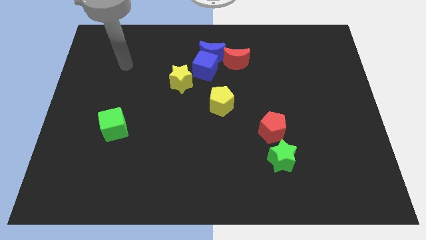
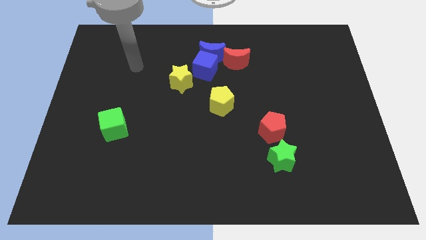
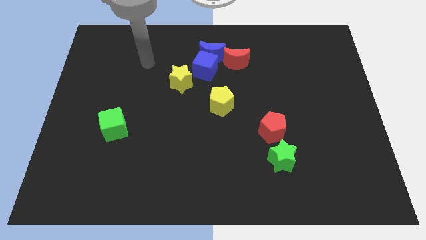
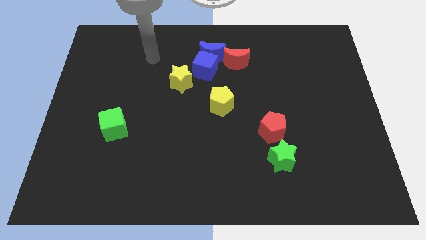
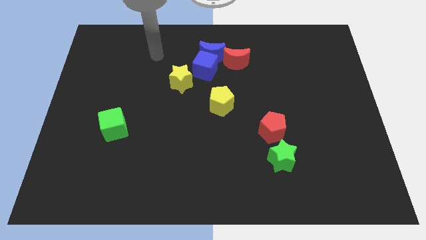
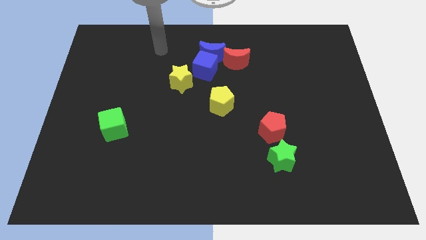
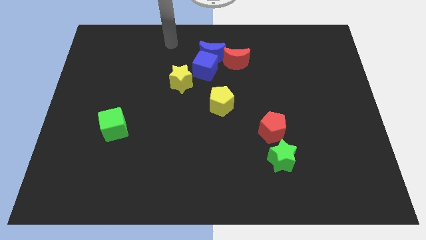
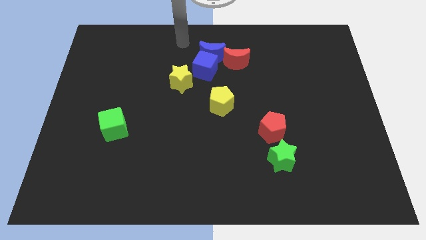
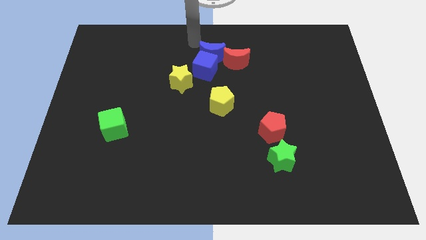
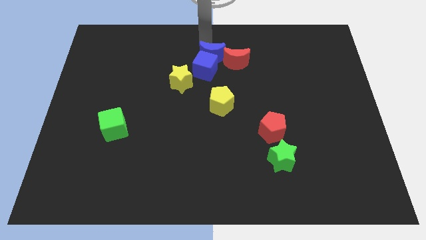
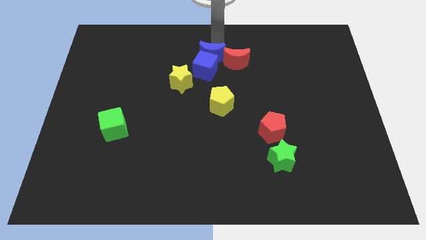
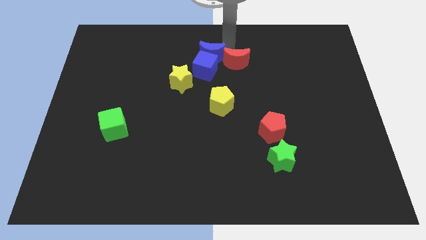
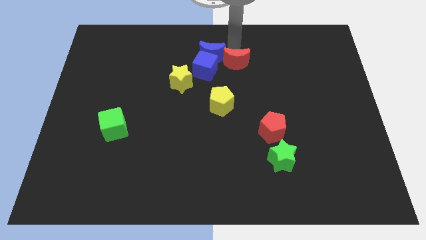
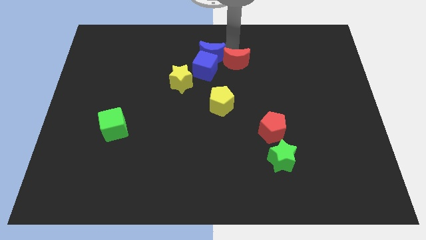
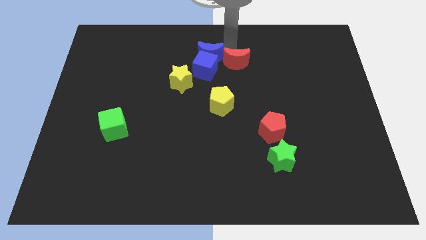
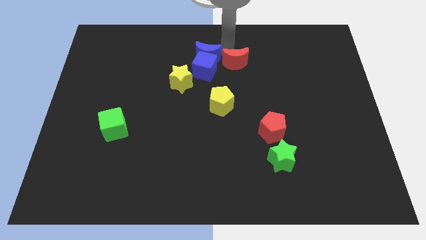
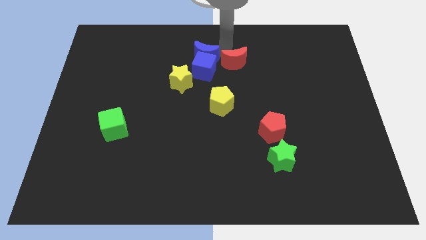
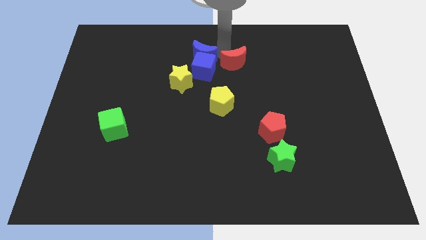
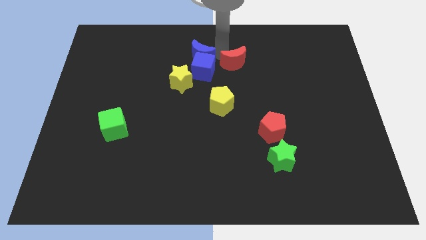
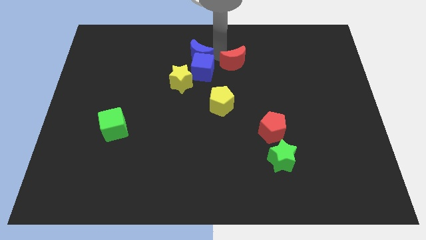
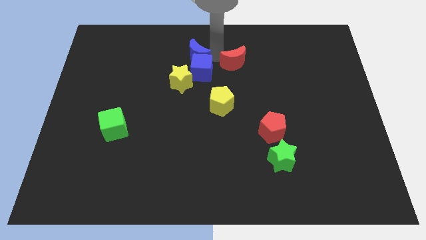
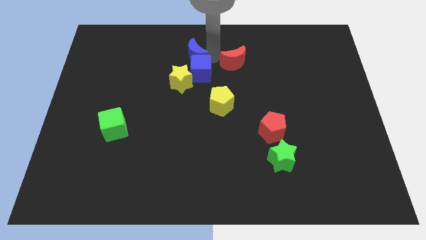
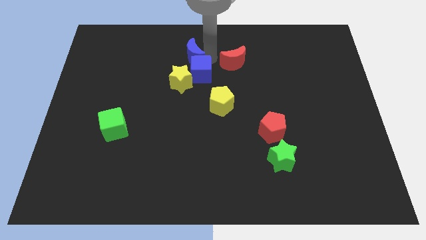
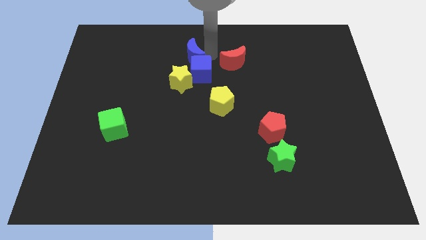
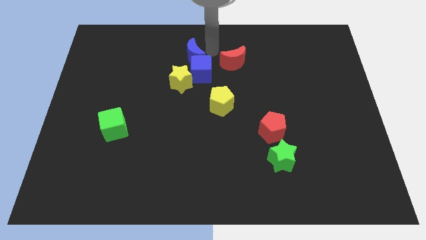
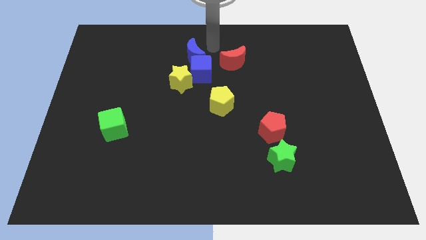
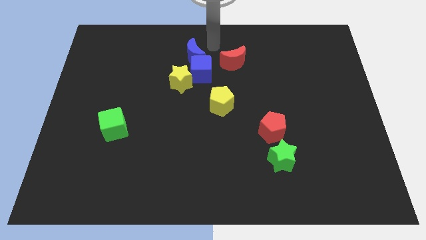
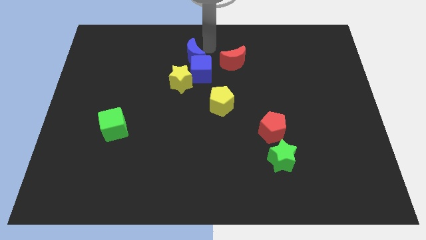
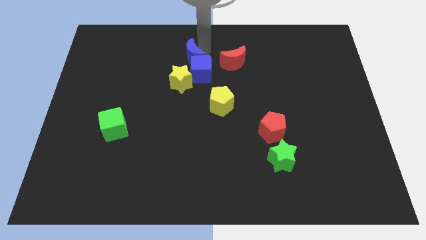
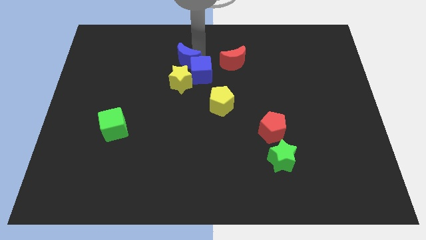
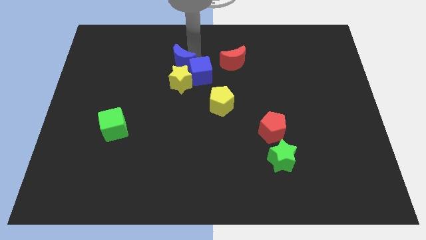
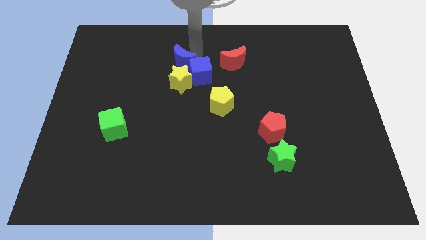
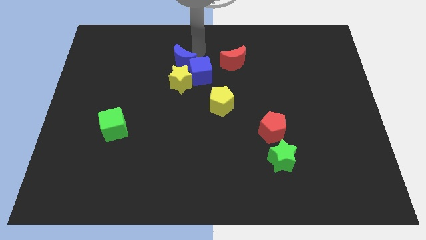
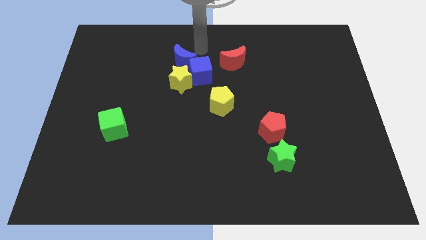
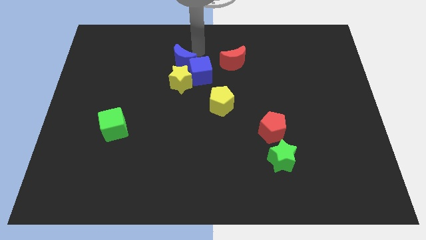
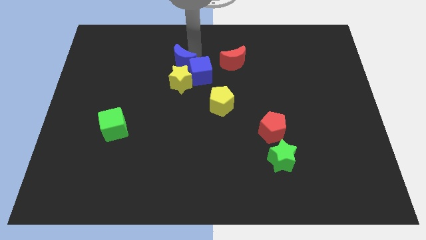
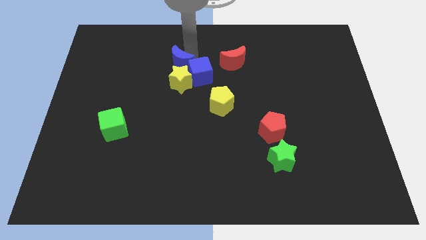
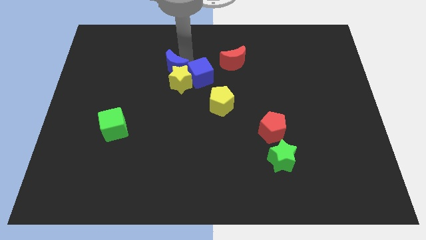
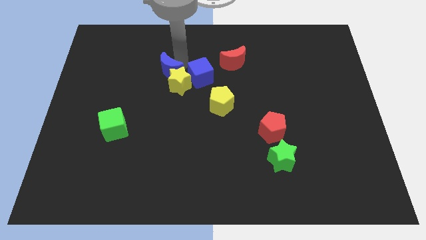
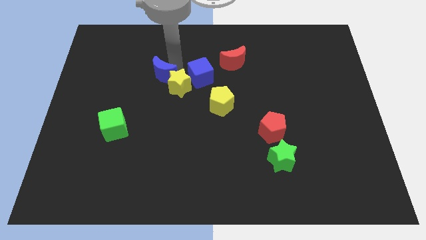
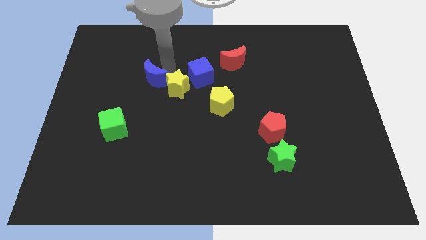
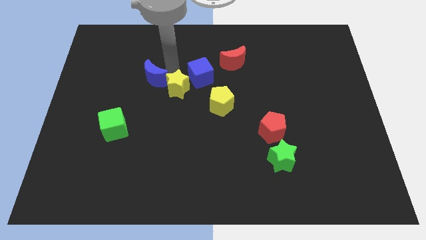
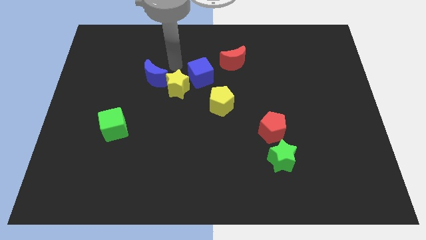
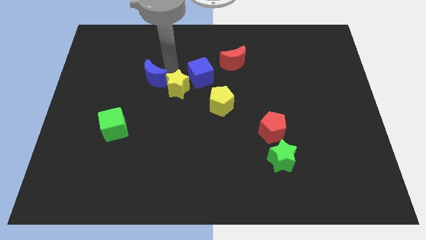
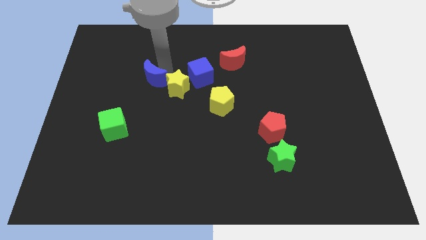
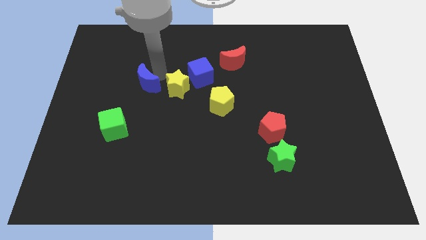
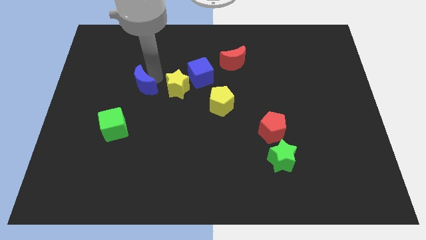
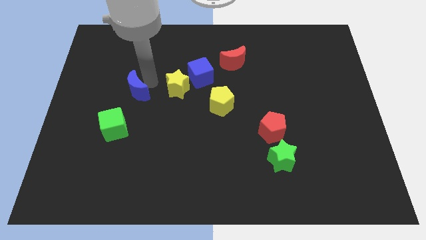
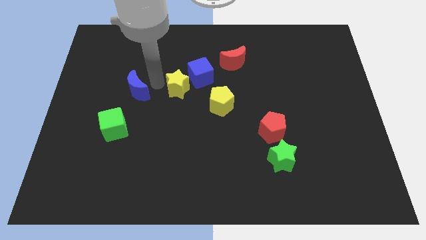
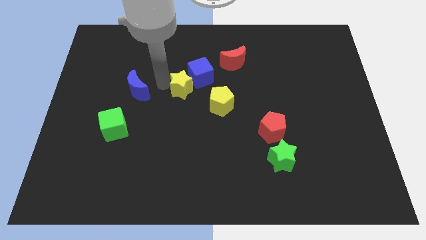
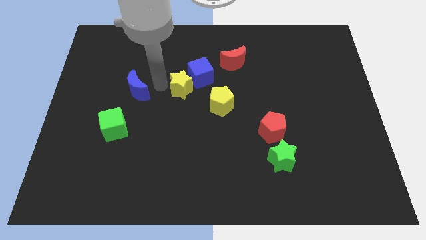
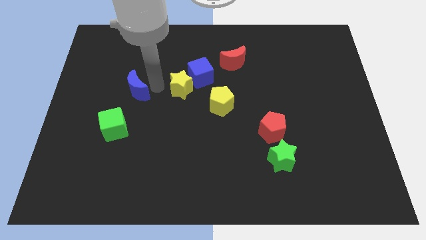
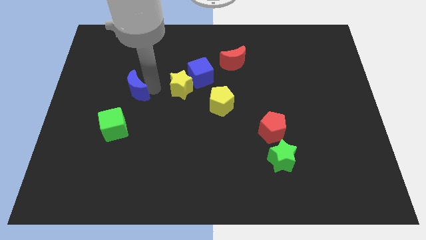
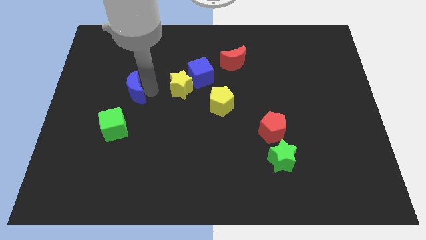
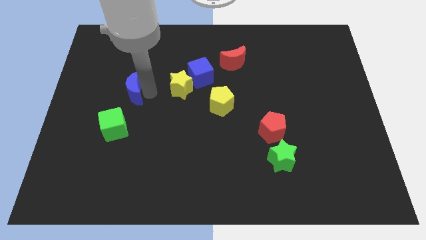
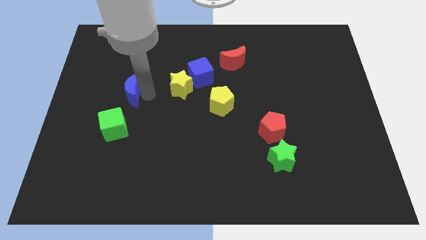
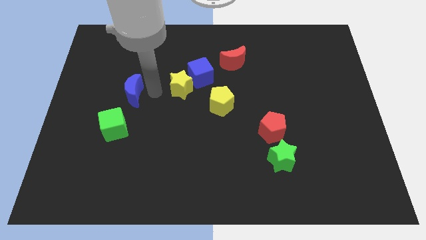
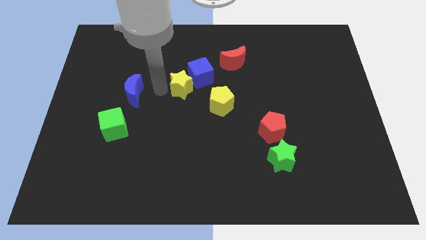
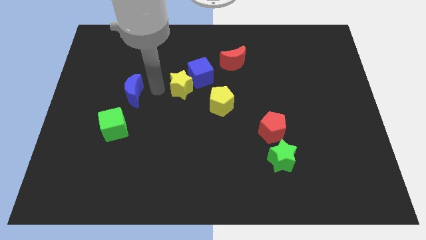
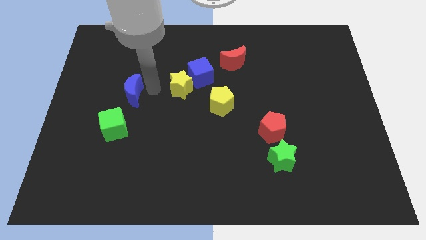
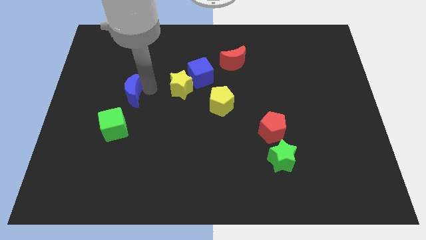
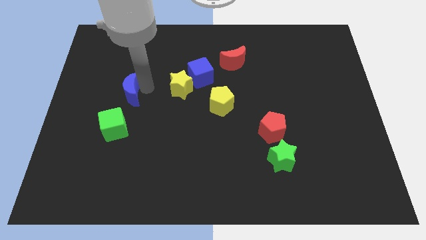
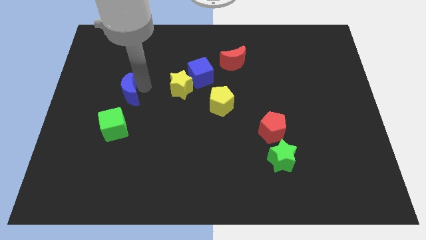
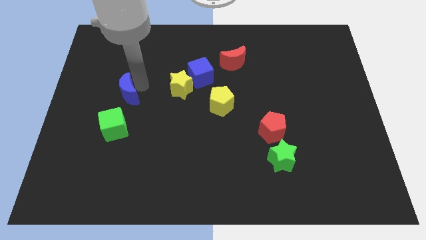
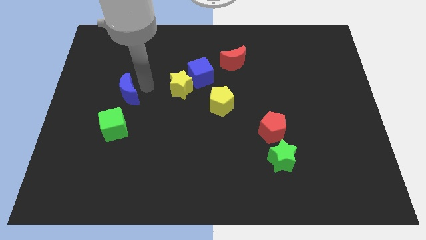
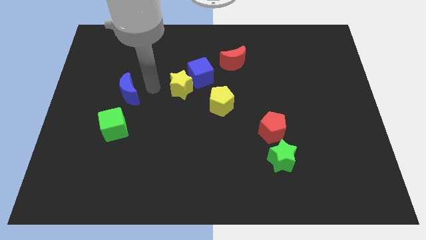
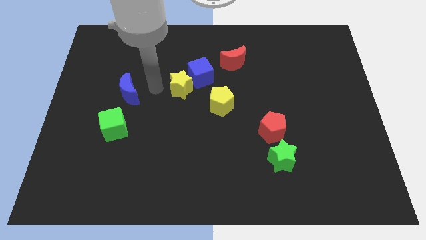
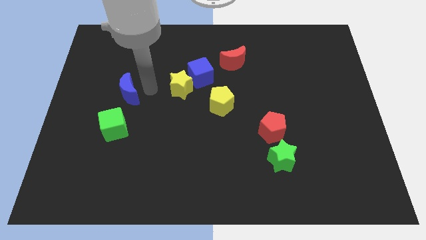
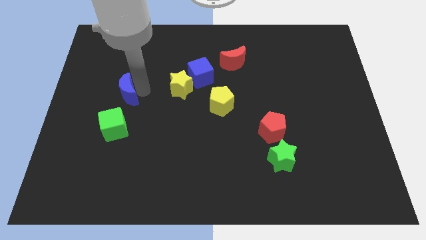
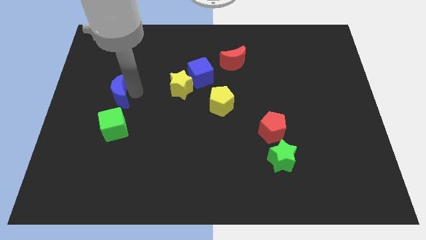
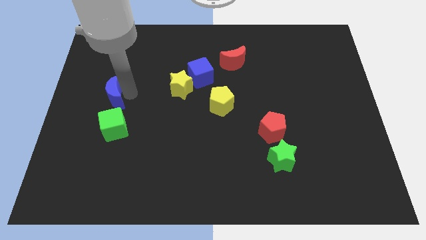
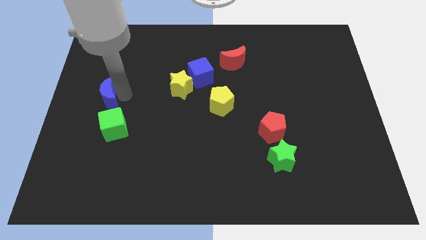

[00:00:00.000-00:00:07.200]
move the blue moon to the center left

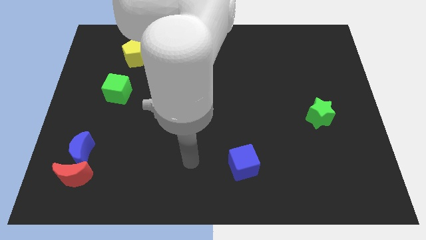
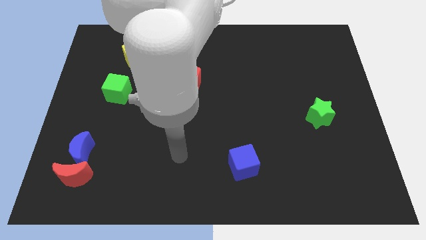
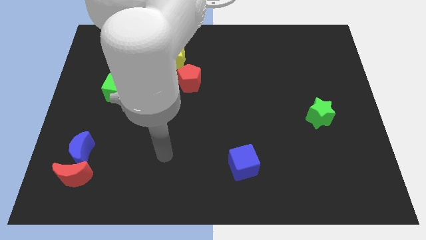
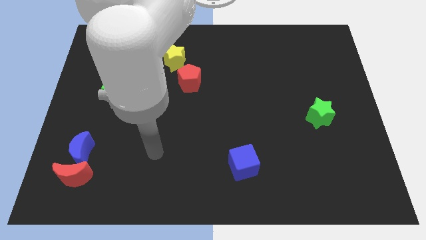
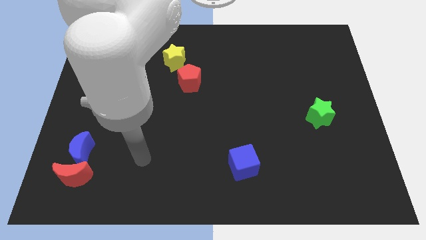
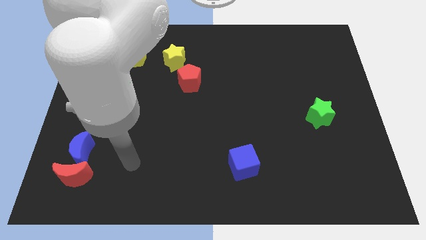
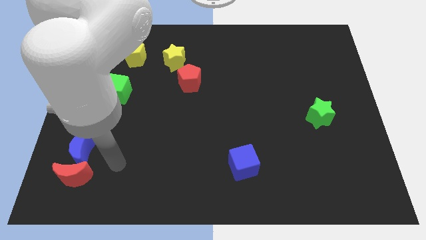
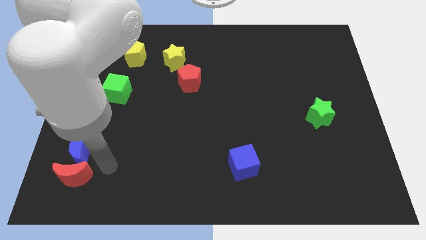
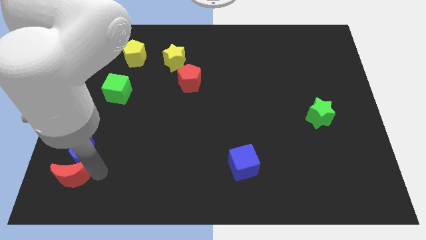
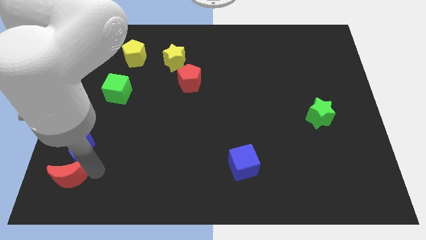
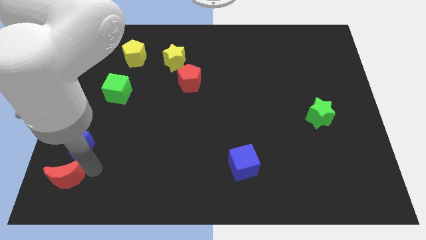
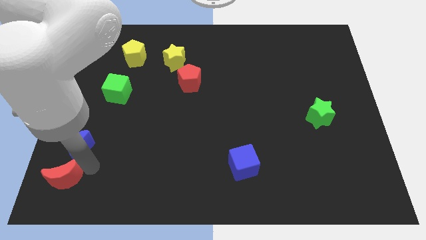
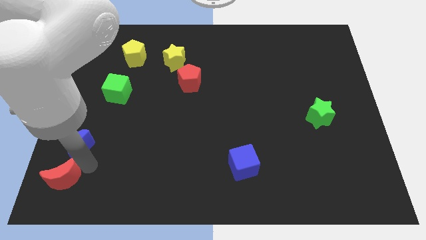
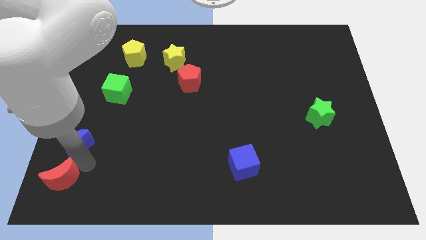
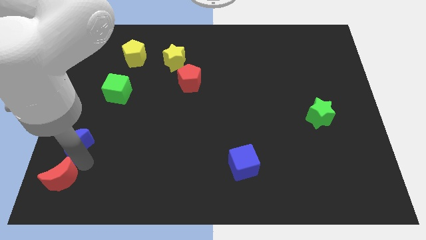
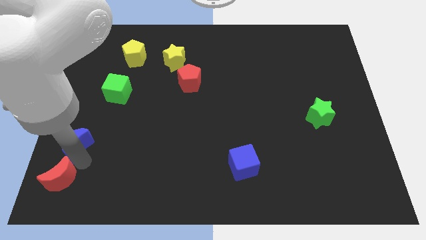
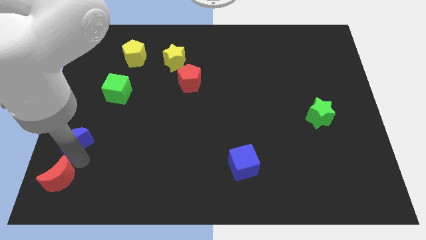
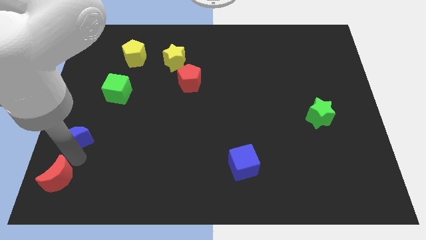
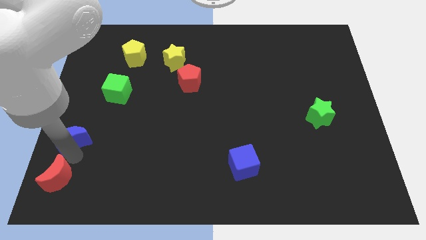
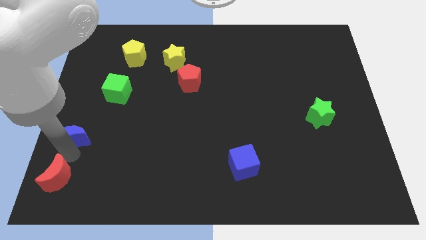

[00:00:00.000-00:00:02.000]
slide the blue moon to the center left
